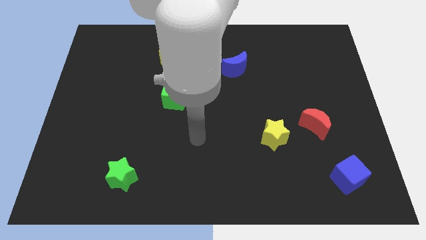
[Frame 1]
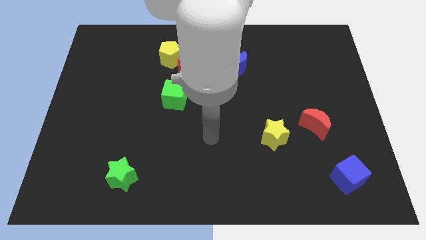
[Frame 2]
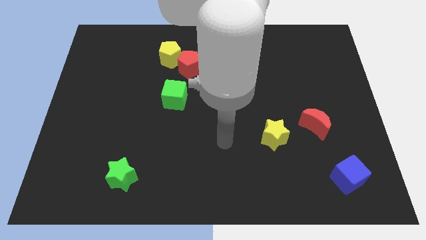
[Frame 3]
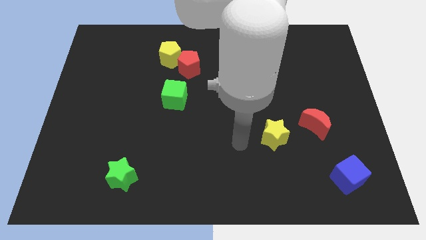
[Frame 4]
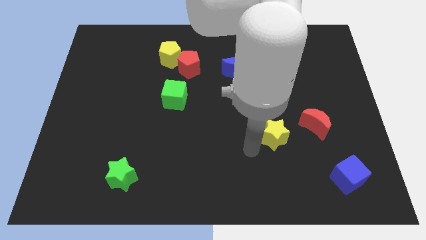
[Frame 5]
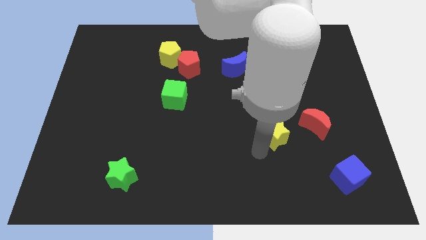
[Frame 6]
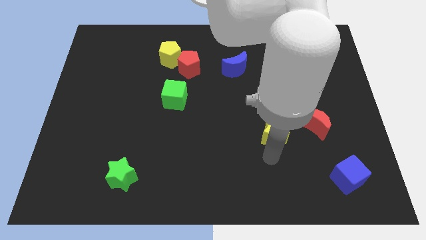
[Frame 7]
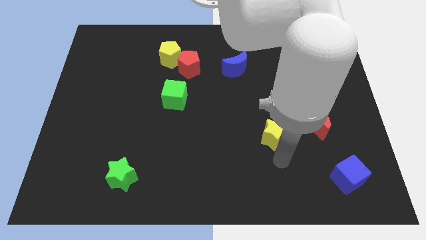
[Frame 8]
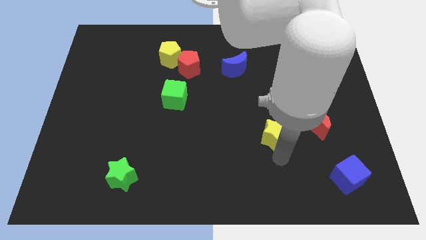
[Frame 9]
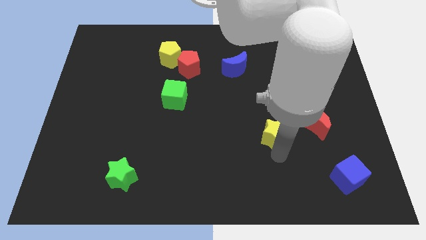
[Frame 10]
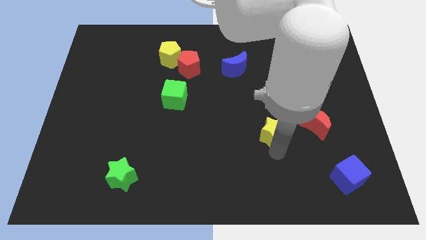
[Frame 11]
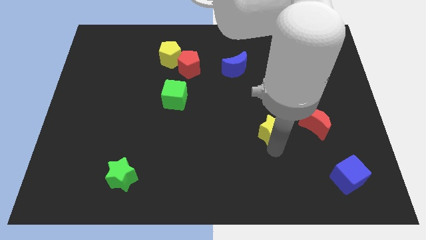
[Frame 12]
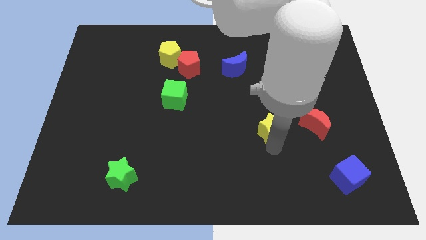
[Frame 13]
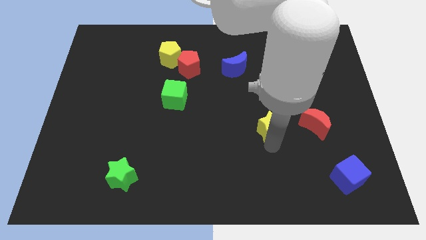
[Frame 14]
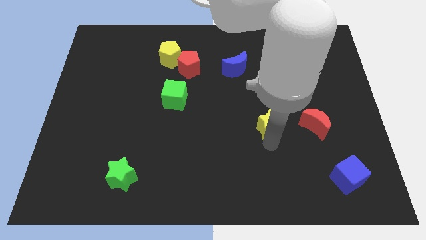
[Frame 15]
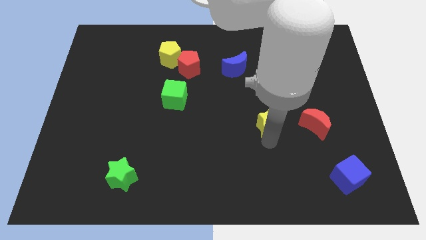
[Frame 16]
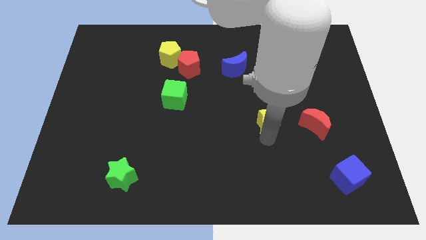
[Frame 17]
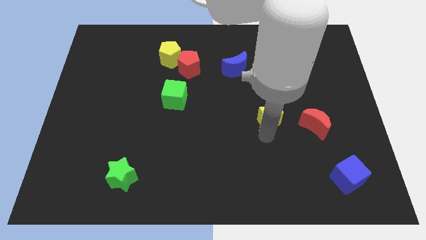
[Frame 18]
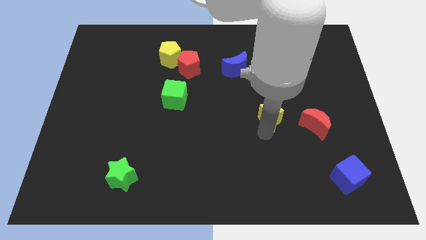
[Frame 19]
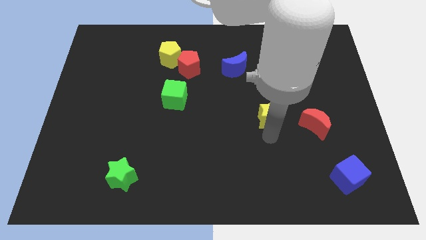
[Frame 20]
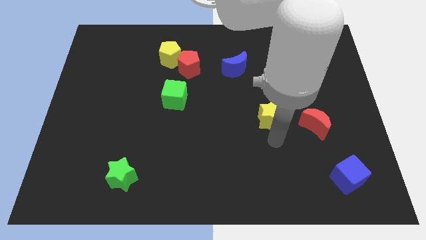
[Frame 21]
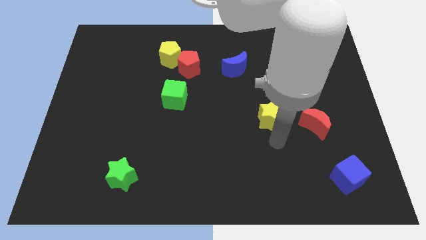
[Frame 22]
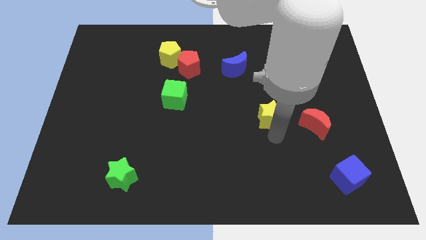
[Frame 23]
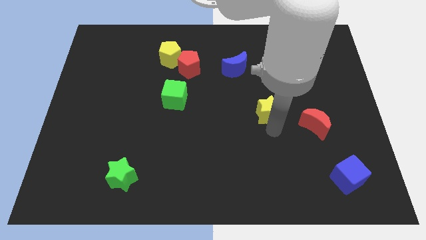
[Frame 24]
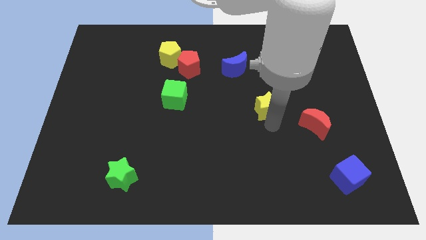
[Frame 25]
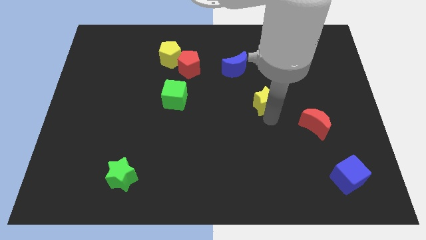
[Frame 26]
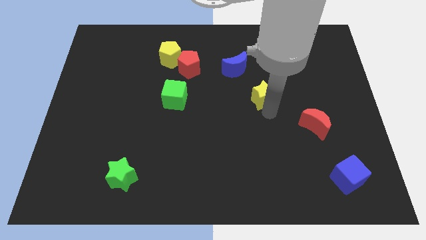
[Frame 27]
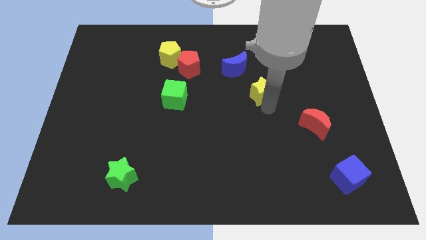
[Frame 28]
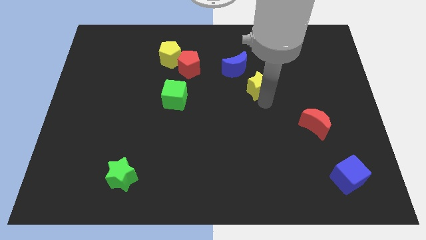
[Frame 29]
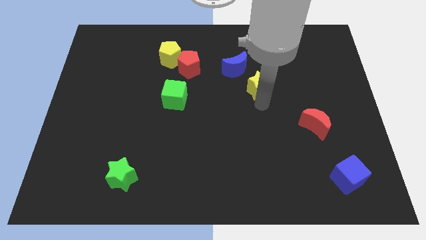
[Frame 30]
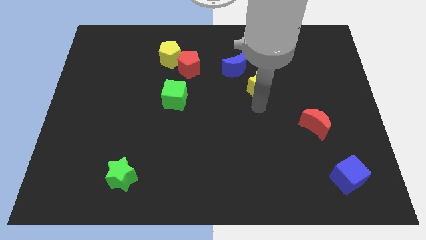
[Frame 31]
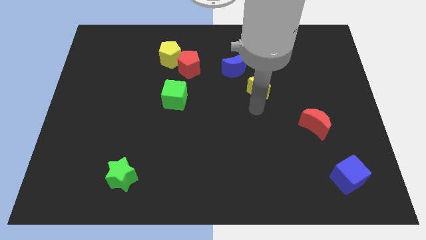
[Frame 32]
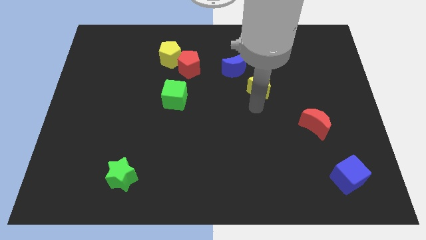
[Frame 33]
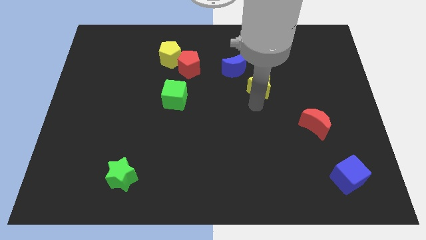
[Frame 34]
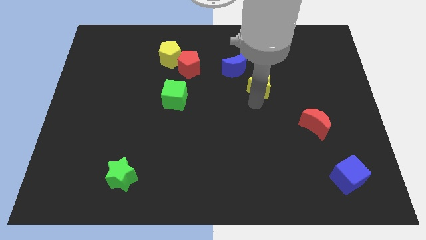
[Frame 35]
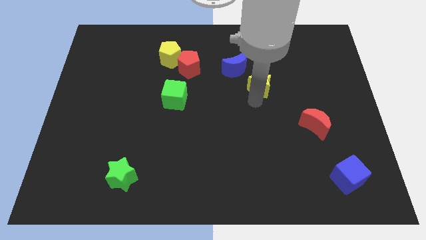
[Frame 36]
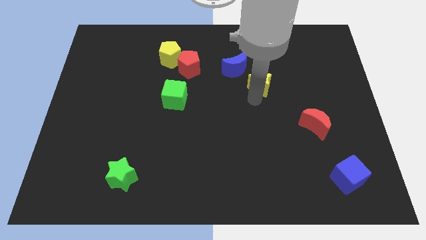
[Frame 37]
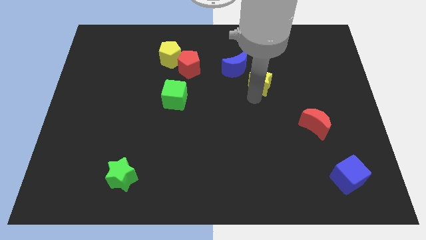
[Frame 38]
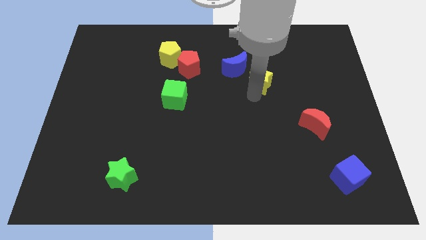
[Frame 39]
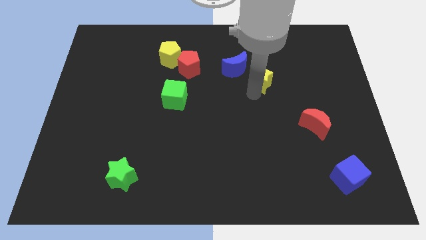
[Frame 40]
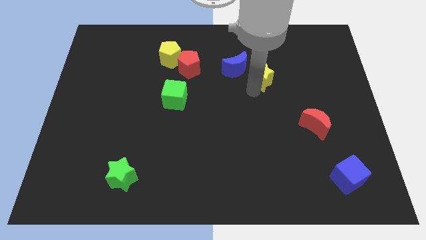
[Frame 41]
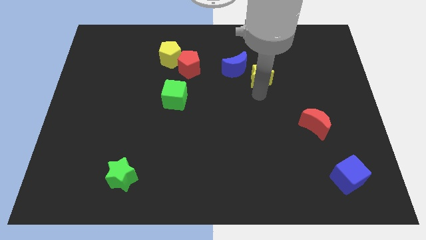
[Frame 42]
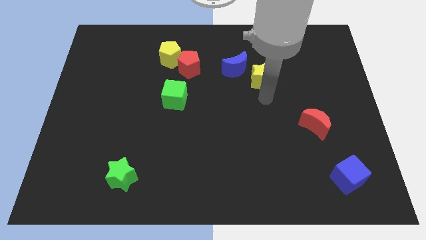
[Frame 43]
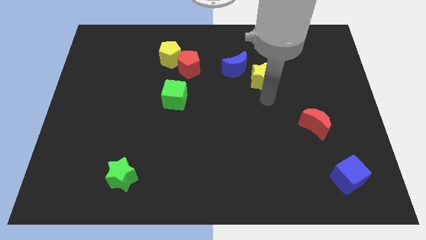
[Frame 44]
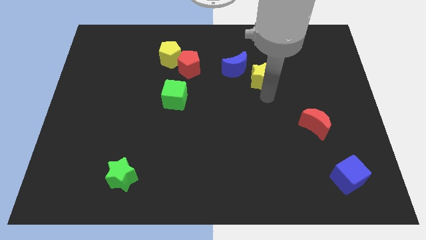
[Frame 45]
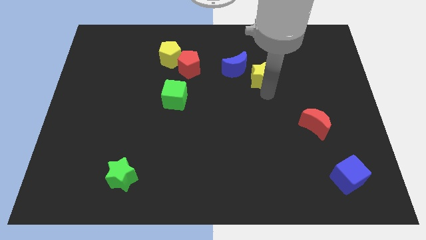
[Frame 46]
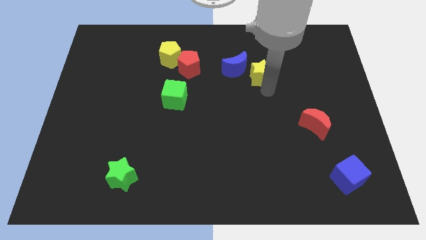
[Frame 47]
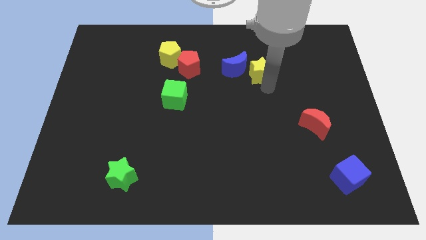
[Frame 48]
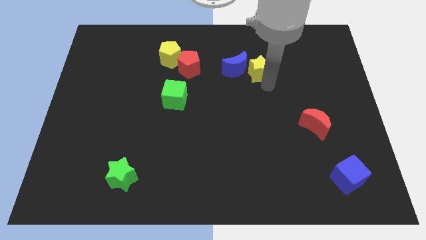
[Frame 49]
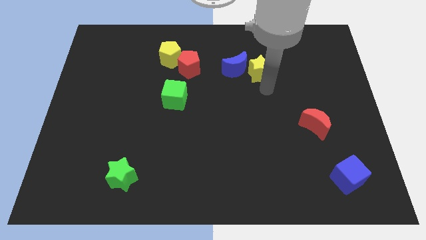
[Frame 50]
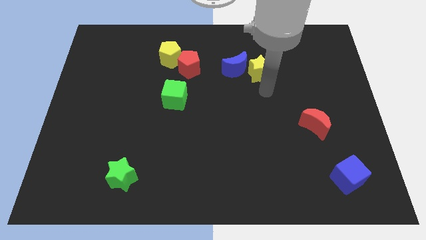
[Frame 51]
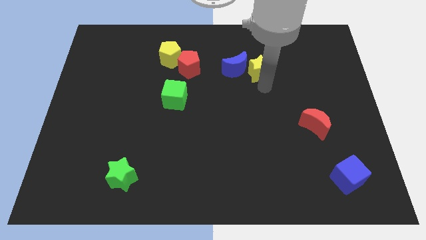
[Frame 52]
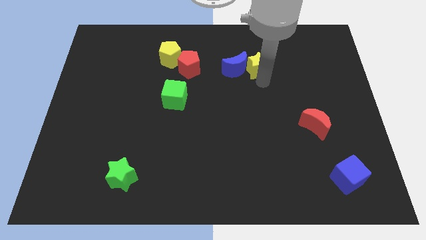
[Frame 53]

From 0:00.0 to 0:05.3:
put the yellow star diagonally up and to the right of the blue moon
